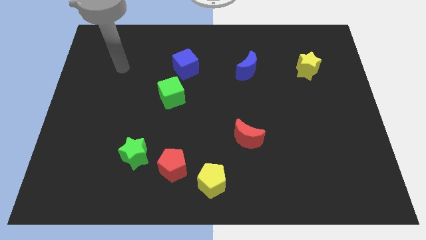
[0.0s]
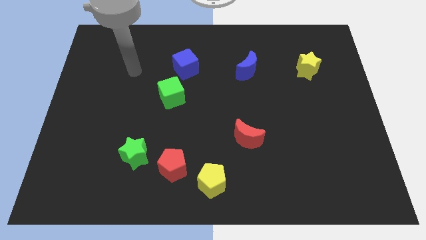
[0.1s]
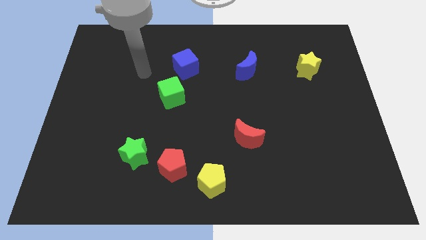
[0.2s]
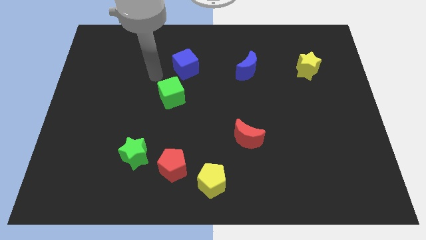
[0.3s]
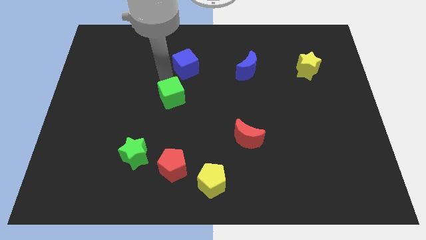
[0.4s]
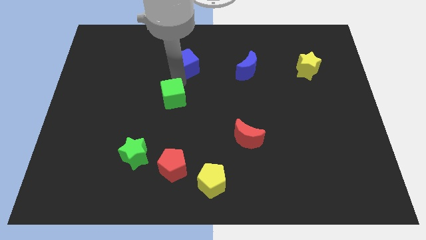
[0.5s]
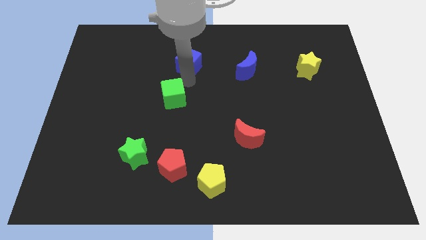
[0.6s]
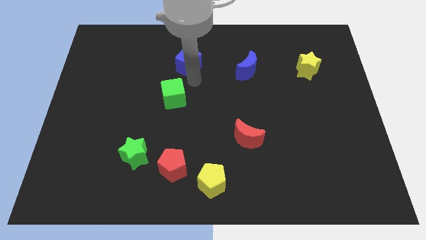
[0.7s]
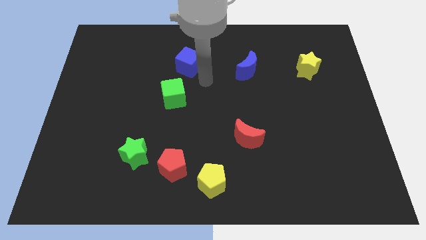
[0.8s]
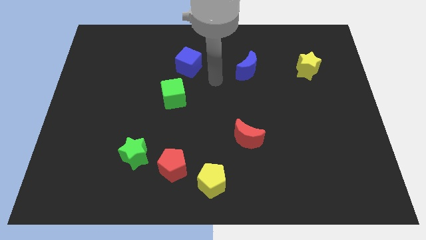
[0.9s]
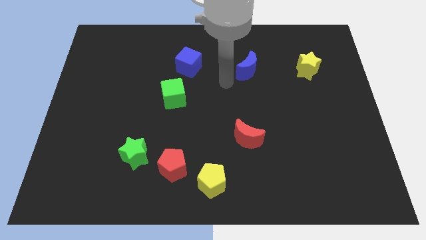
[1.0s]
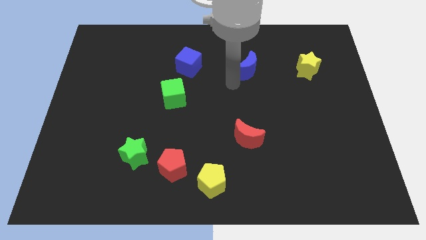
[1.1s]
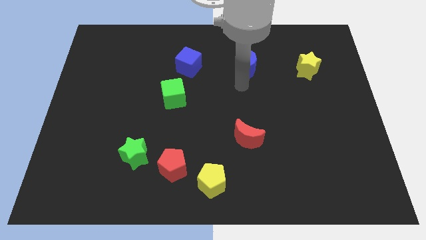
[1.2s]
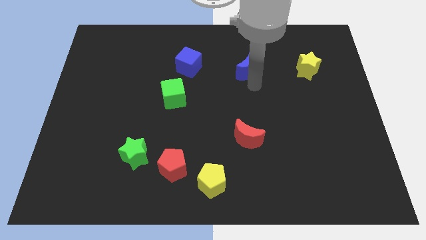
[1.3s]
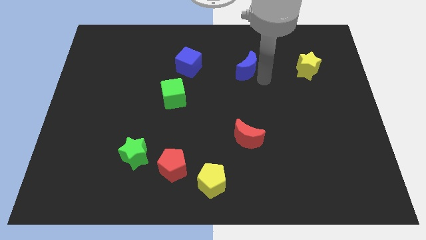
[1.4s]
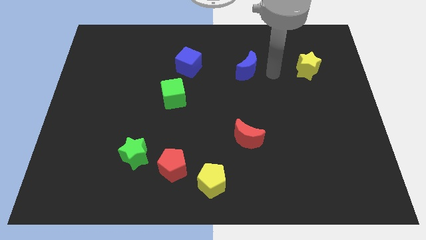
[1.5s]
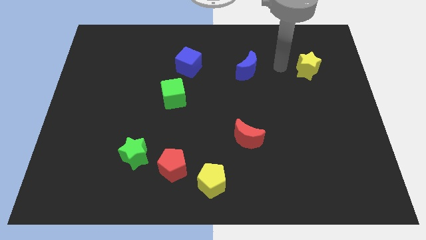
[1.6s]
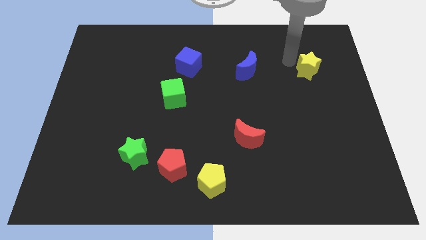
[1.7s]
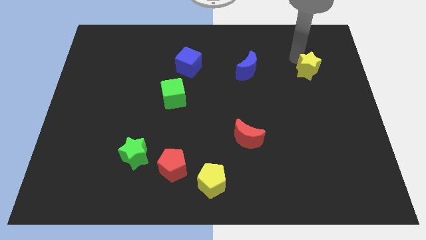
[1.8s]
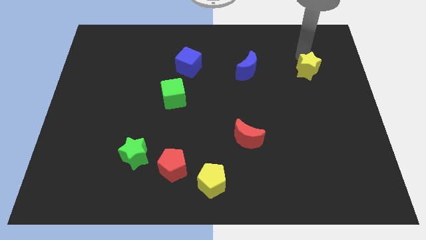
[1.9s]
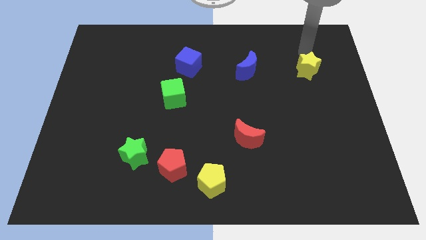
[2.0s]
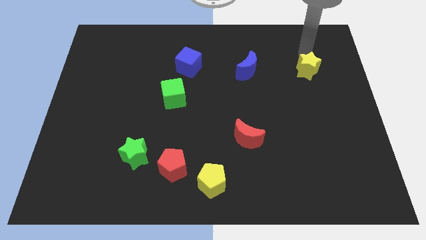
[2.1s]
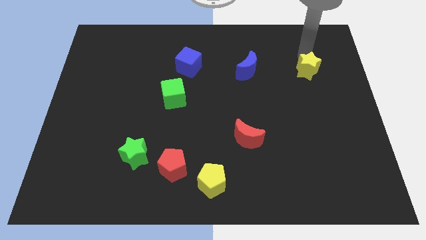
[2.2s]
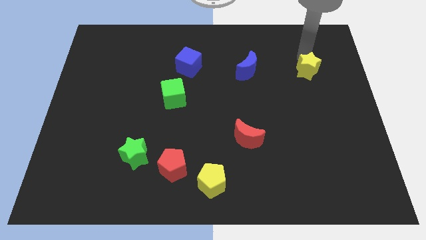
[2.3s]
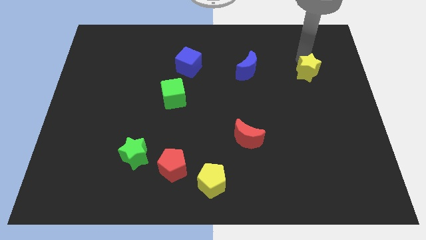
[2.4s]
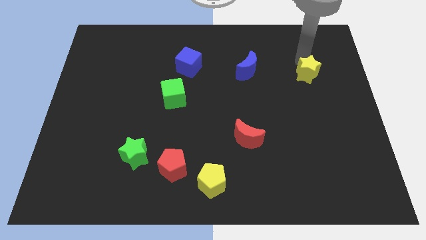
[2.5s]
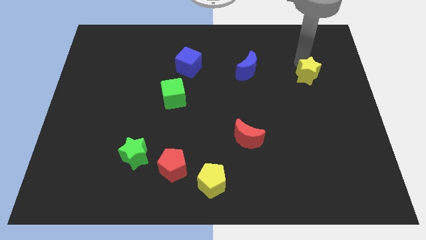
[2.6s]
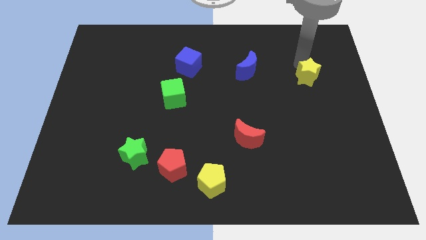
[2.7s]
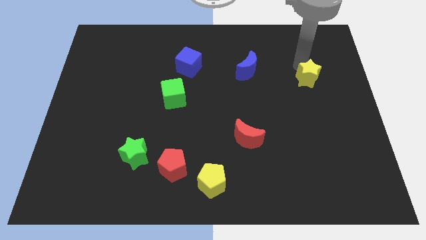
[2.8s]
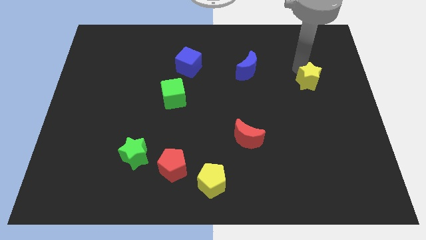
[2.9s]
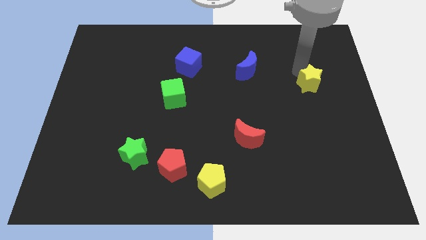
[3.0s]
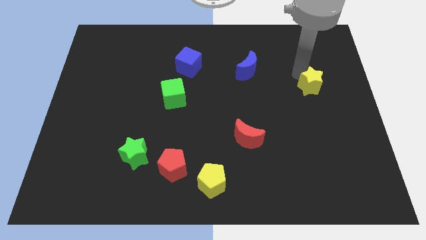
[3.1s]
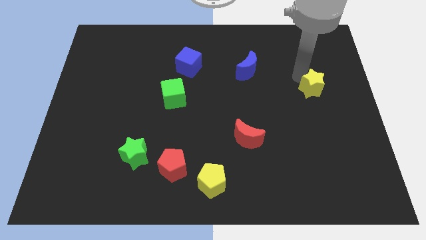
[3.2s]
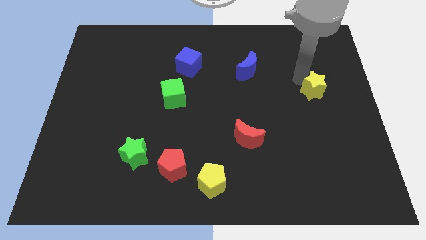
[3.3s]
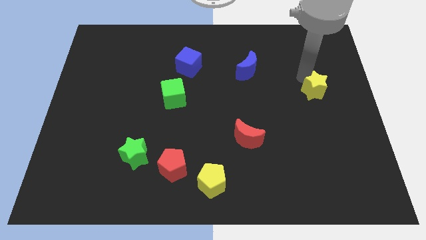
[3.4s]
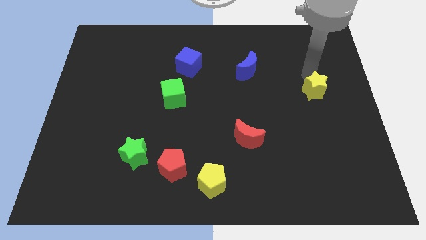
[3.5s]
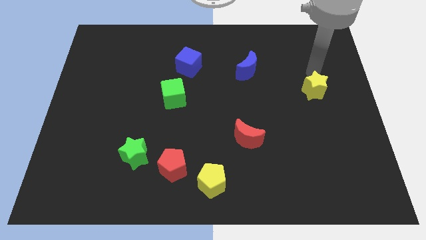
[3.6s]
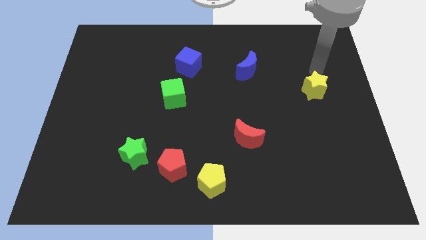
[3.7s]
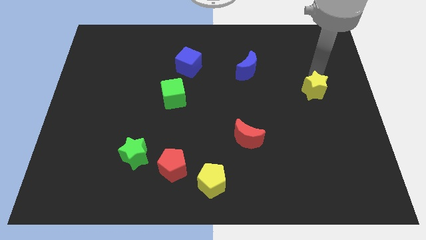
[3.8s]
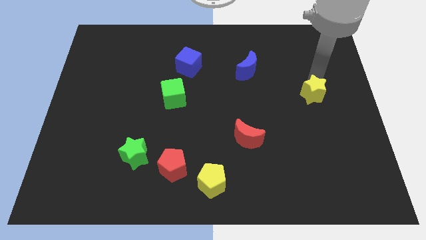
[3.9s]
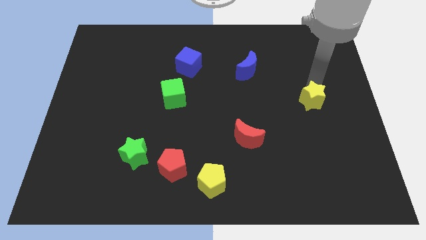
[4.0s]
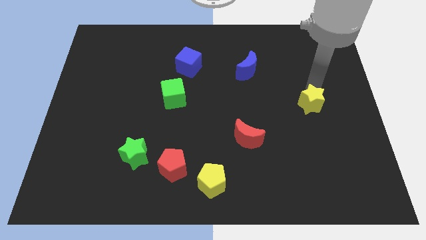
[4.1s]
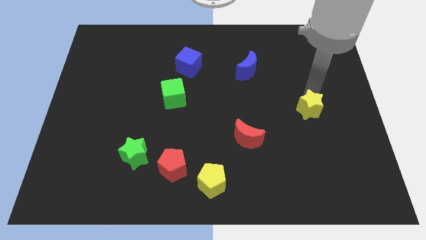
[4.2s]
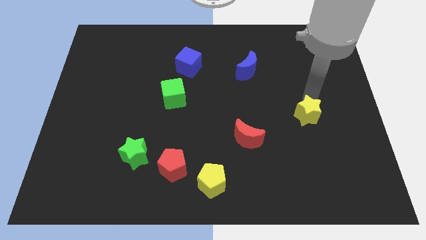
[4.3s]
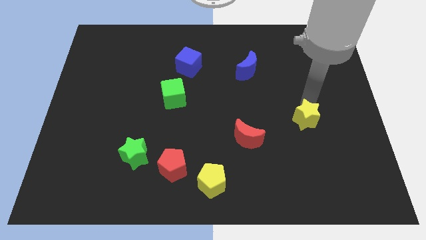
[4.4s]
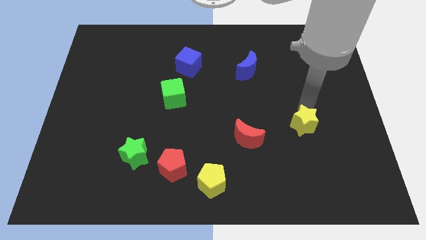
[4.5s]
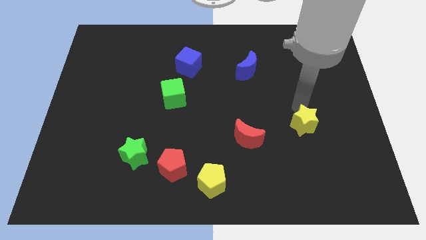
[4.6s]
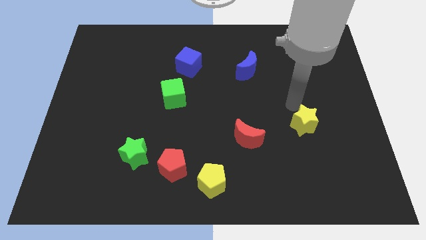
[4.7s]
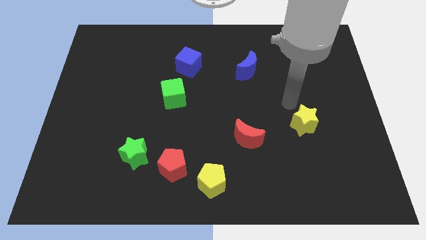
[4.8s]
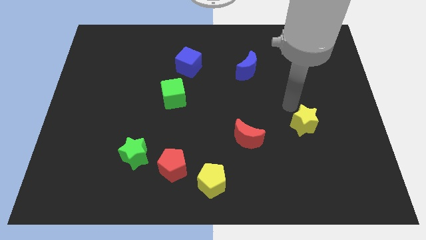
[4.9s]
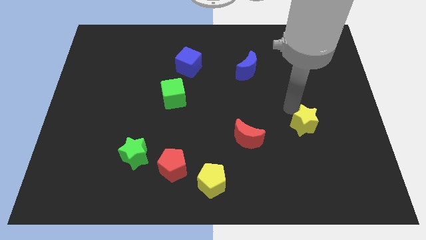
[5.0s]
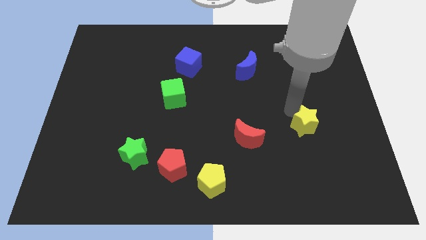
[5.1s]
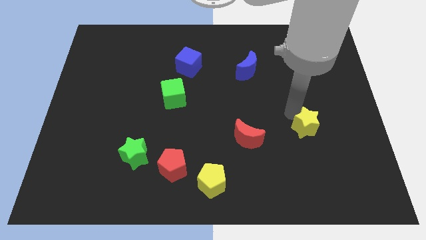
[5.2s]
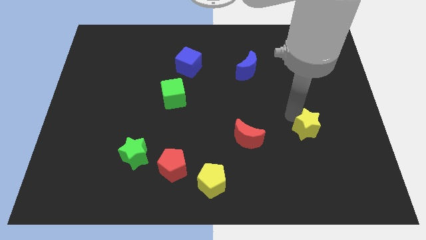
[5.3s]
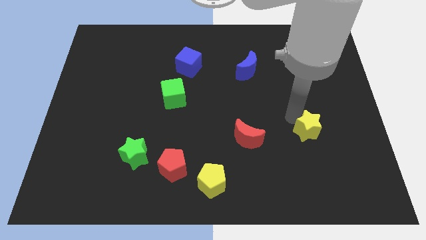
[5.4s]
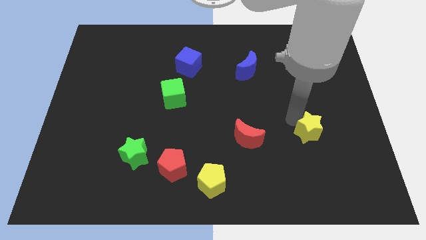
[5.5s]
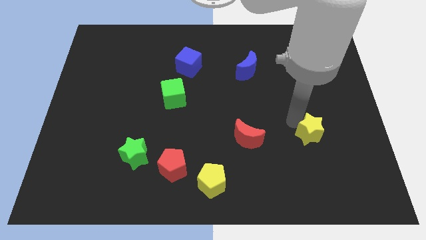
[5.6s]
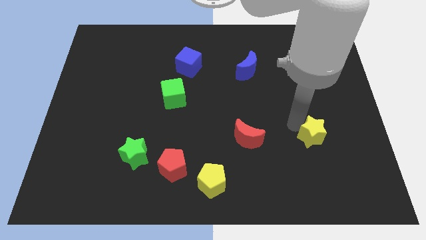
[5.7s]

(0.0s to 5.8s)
move the yellow star downwards

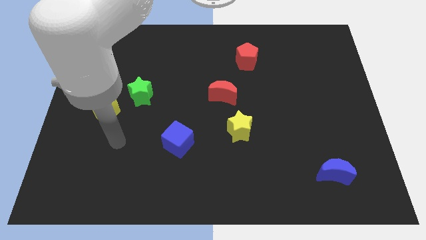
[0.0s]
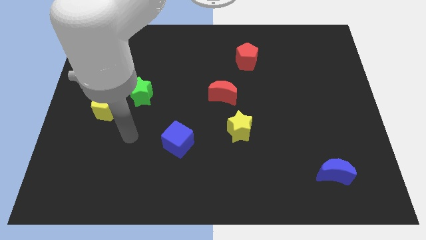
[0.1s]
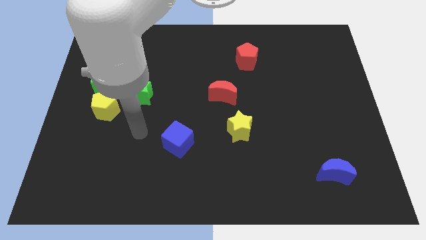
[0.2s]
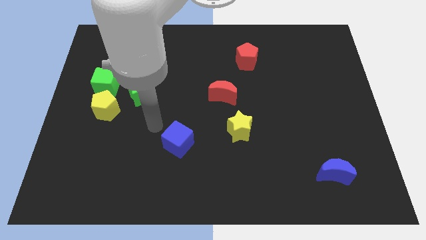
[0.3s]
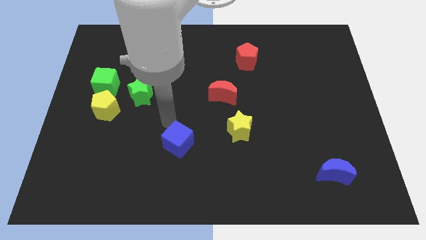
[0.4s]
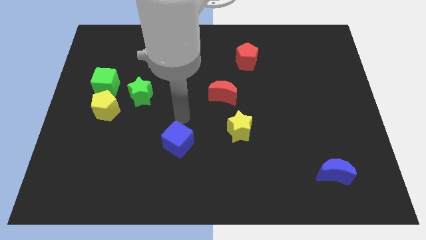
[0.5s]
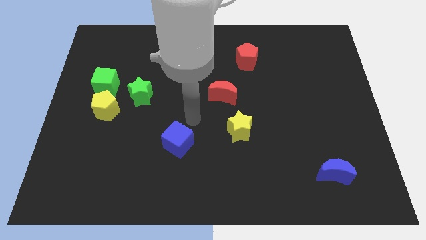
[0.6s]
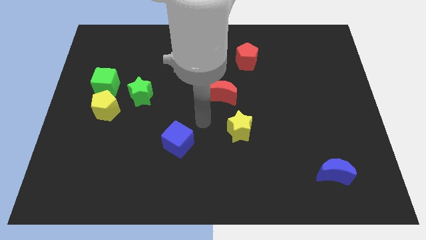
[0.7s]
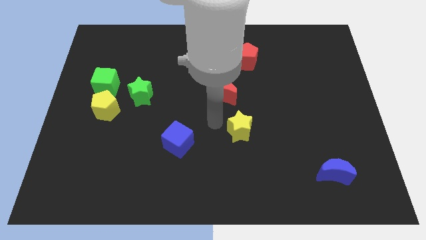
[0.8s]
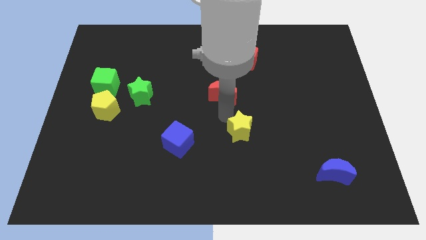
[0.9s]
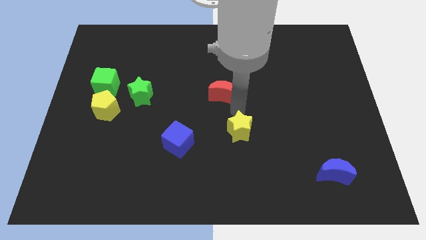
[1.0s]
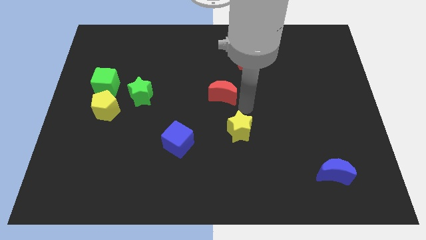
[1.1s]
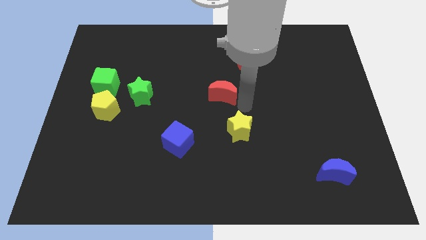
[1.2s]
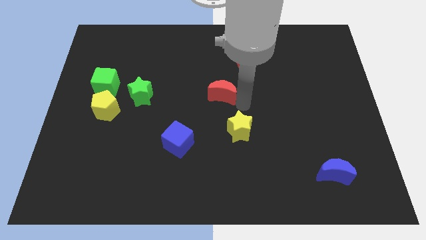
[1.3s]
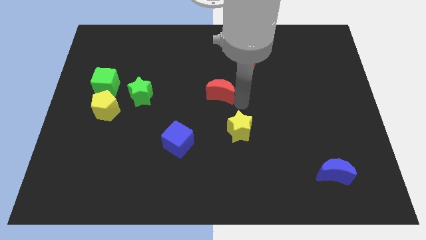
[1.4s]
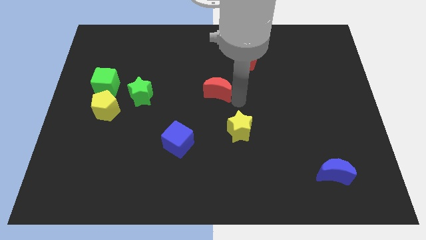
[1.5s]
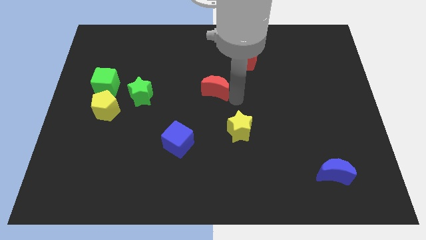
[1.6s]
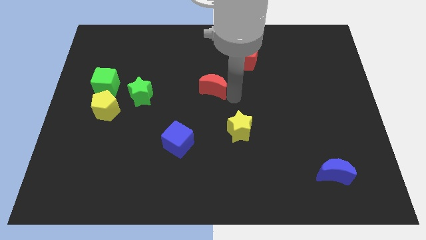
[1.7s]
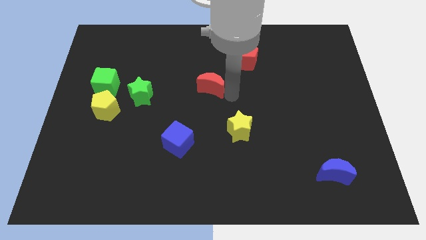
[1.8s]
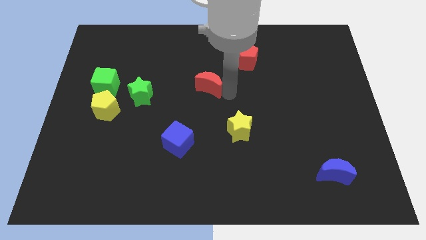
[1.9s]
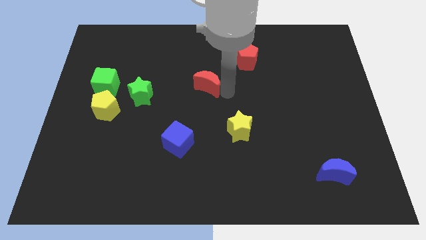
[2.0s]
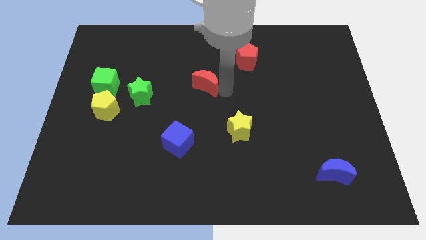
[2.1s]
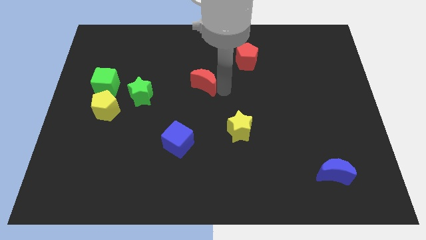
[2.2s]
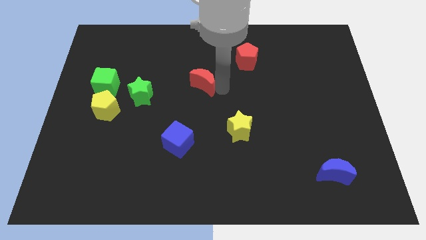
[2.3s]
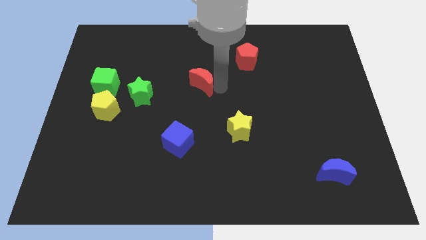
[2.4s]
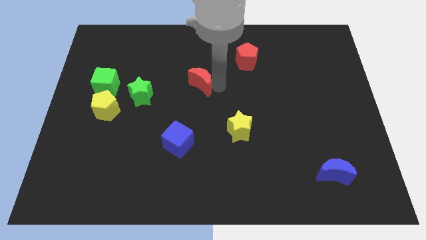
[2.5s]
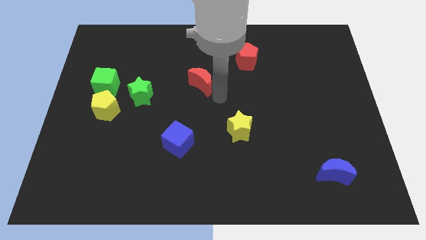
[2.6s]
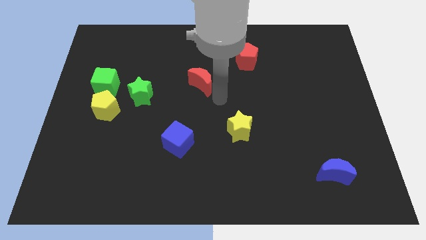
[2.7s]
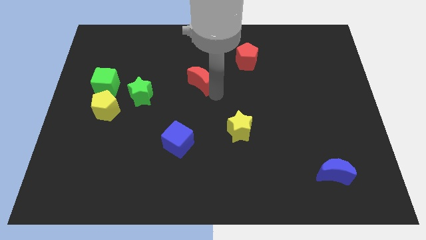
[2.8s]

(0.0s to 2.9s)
push the red moon diagonally upwards and left a little bit
